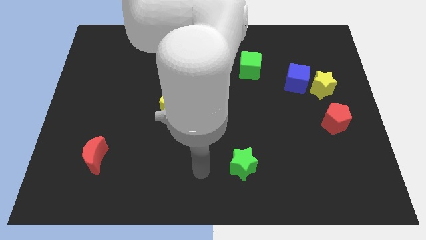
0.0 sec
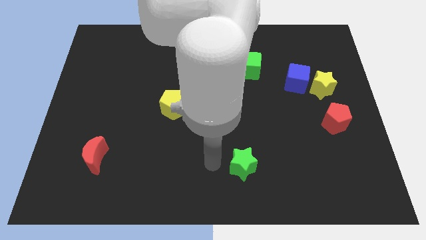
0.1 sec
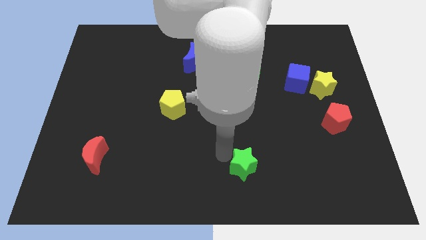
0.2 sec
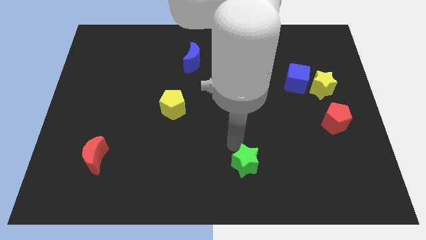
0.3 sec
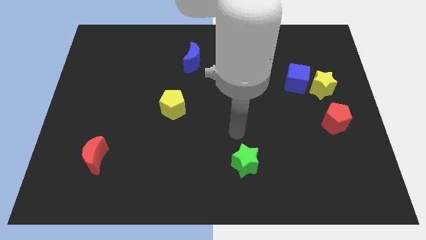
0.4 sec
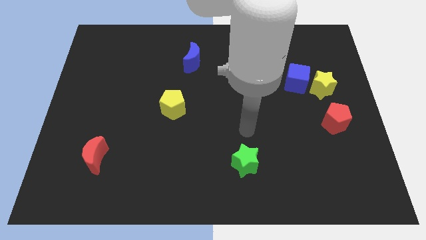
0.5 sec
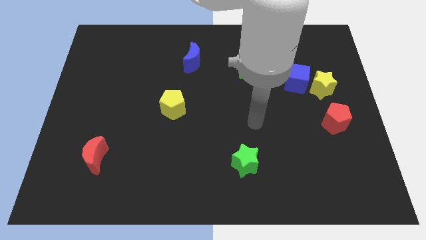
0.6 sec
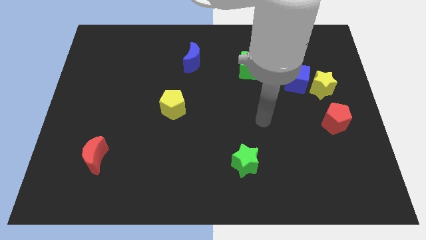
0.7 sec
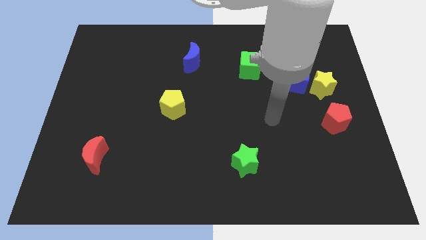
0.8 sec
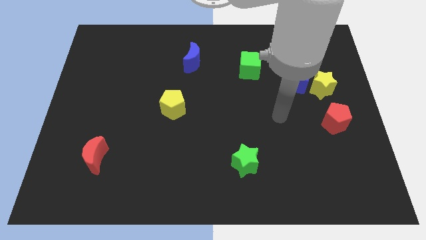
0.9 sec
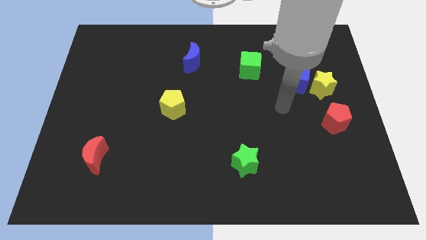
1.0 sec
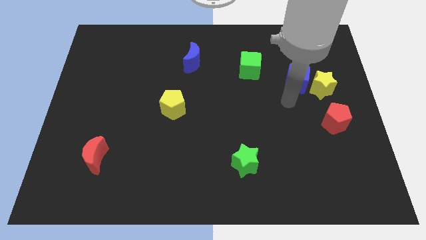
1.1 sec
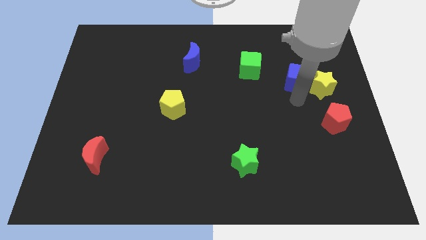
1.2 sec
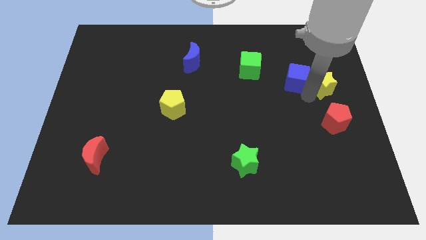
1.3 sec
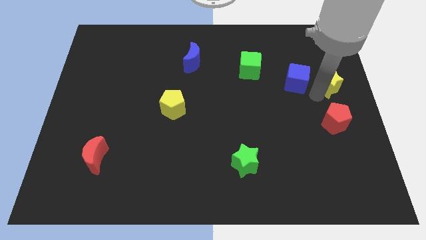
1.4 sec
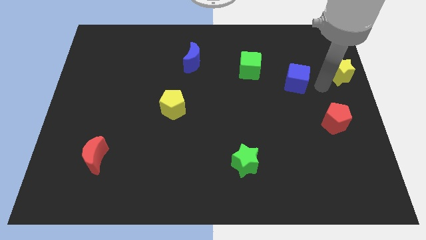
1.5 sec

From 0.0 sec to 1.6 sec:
separate the blue cube from the yellow star

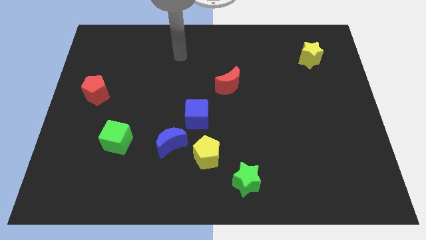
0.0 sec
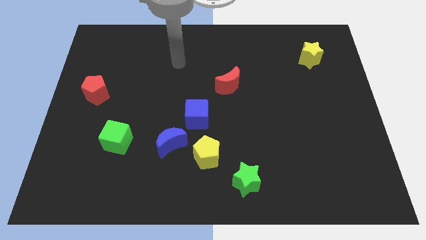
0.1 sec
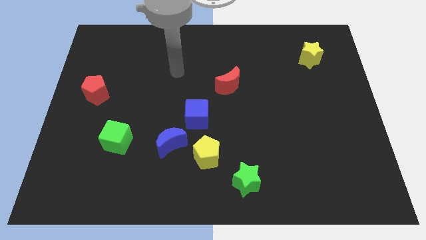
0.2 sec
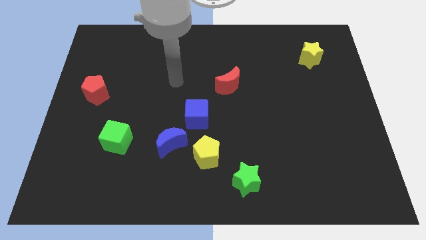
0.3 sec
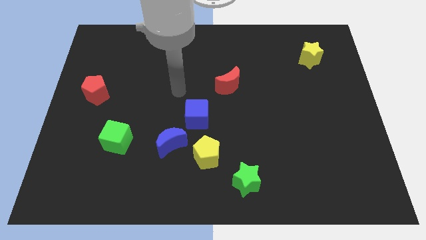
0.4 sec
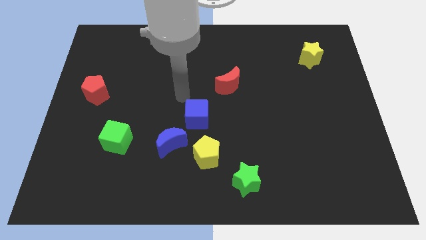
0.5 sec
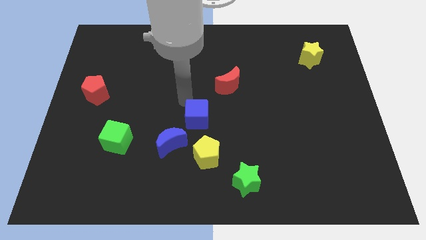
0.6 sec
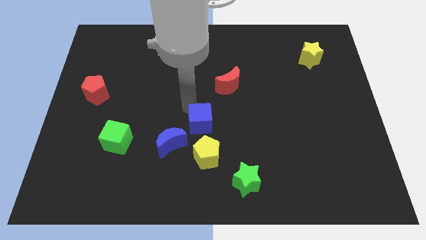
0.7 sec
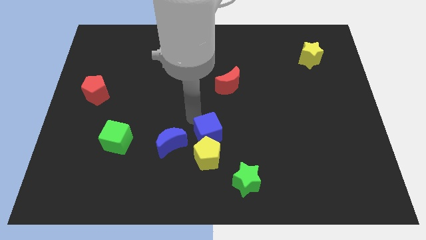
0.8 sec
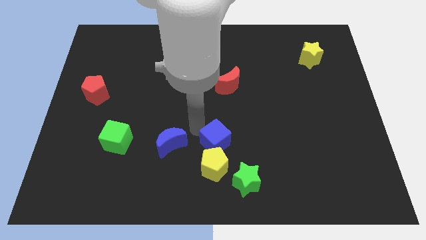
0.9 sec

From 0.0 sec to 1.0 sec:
pull the blue moon apart from the yellow pentagon and blue cube

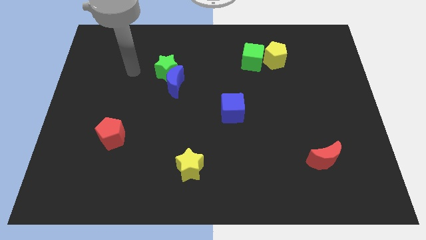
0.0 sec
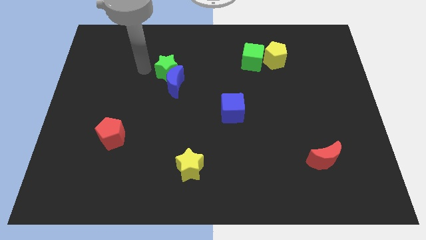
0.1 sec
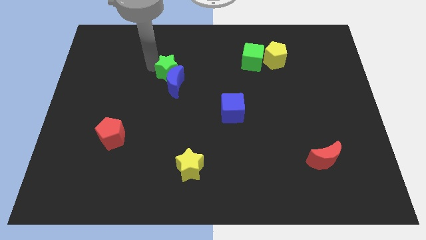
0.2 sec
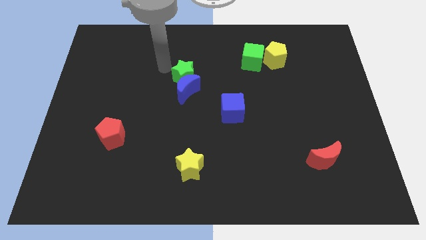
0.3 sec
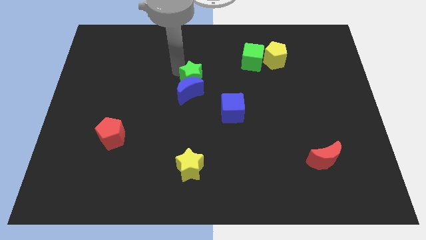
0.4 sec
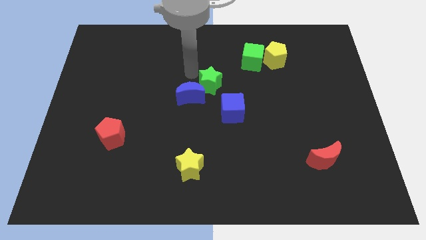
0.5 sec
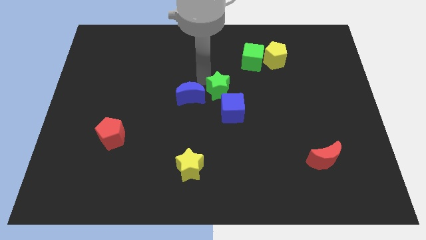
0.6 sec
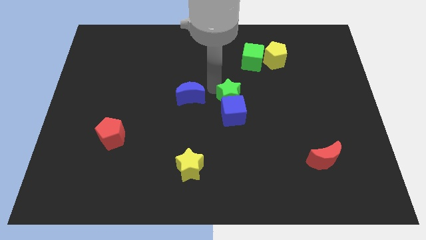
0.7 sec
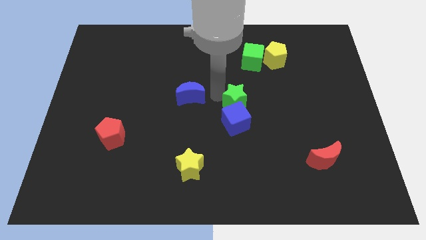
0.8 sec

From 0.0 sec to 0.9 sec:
move the blue moon away from the green star

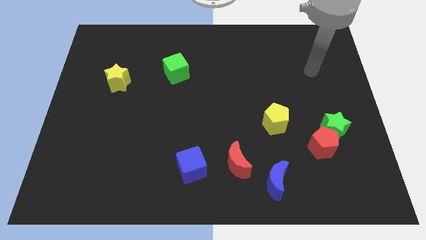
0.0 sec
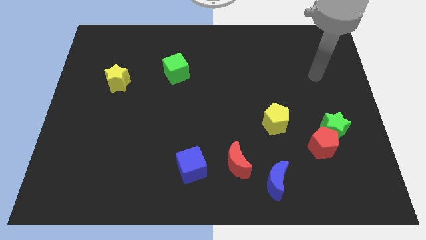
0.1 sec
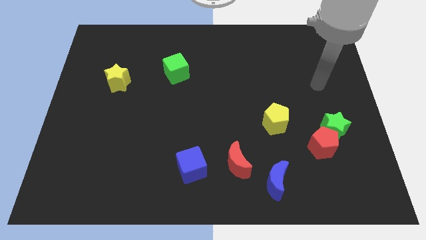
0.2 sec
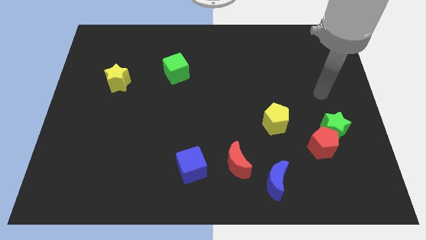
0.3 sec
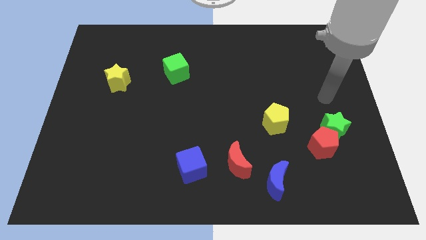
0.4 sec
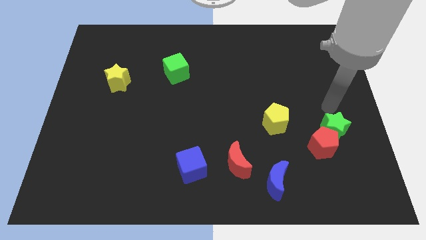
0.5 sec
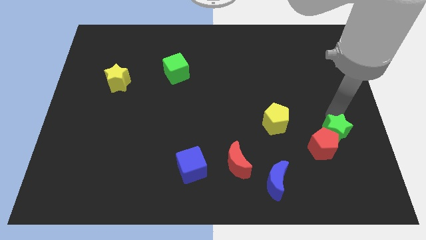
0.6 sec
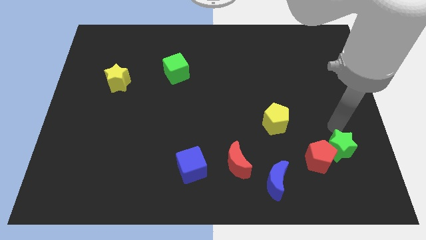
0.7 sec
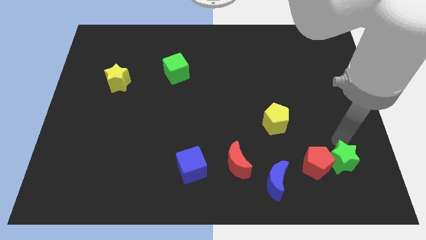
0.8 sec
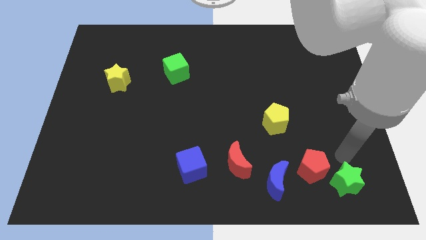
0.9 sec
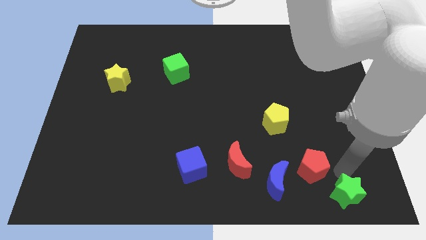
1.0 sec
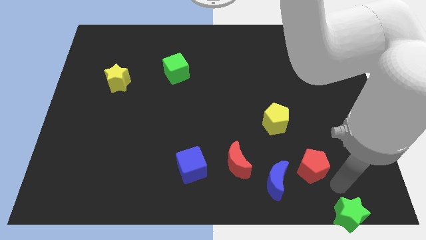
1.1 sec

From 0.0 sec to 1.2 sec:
move the red pentagon away from the green star

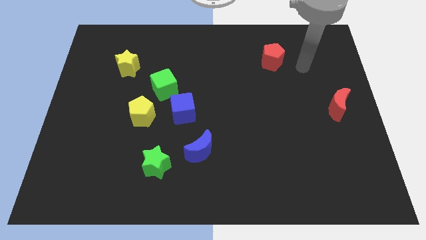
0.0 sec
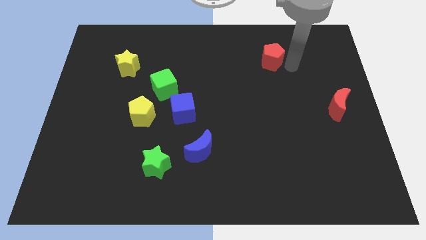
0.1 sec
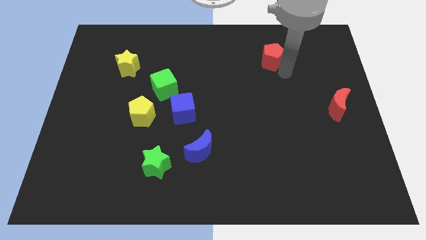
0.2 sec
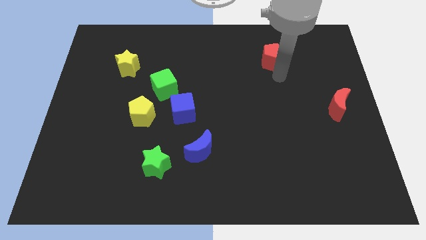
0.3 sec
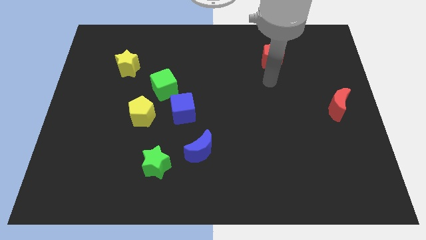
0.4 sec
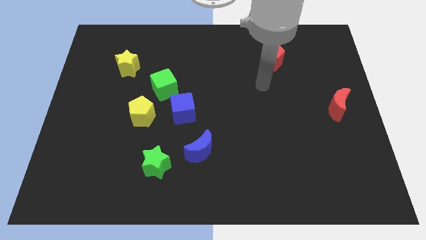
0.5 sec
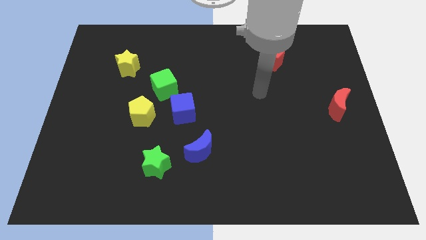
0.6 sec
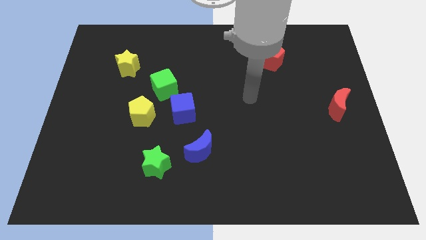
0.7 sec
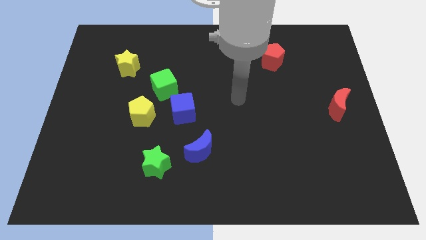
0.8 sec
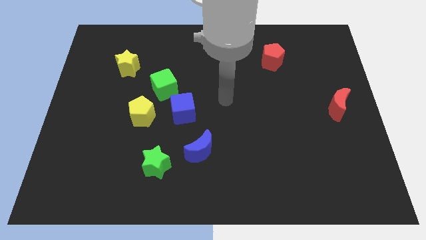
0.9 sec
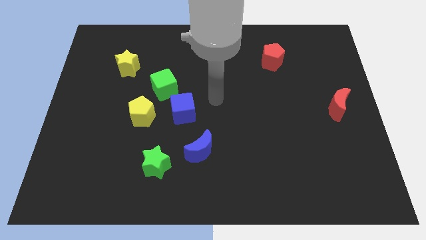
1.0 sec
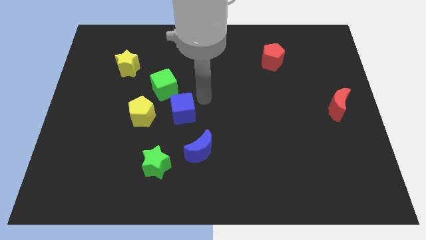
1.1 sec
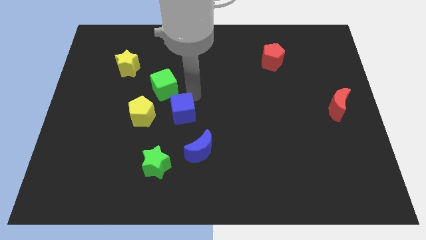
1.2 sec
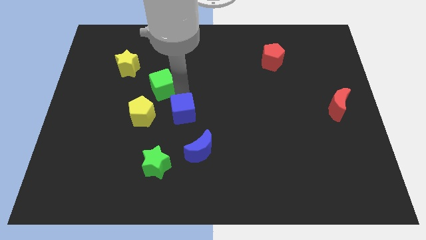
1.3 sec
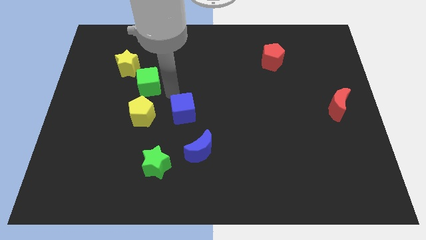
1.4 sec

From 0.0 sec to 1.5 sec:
separate the blue cube from the green cube and yellow pentagon

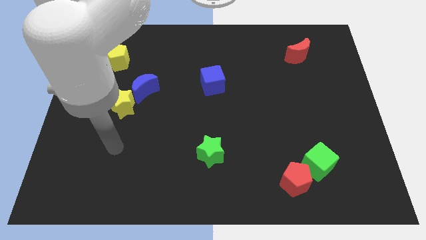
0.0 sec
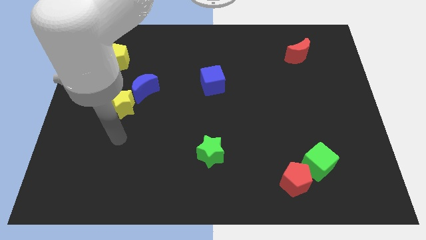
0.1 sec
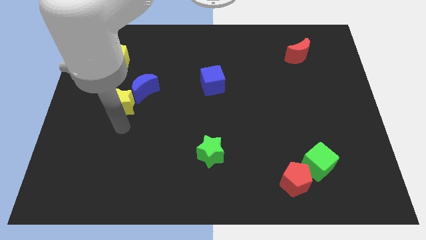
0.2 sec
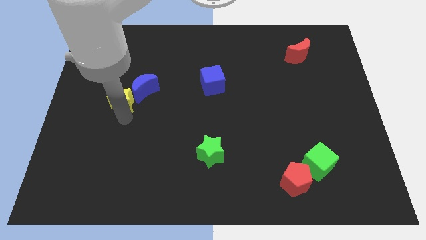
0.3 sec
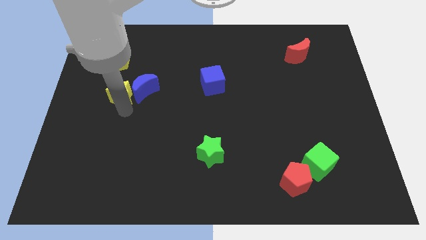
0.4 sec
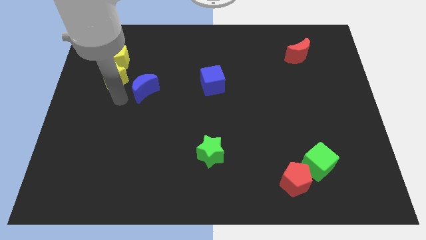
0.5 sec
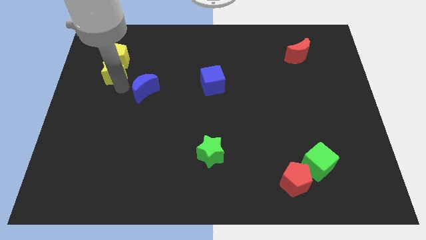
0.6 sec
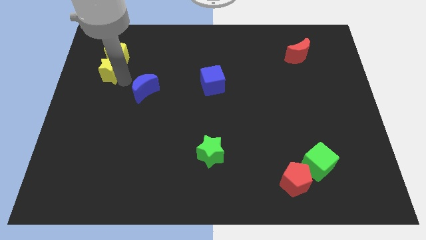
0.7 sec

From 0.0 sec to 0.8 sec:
pull the blue moon apart from the yellow star

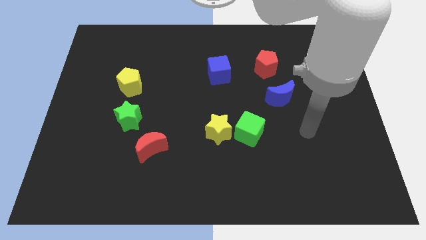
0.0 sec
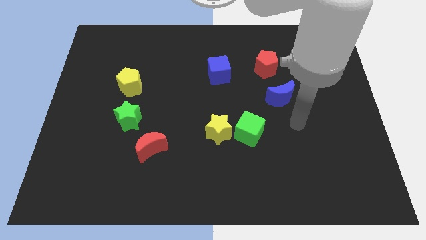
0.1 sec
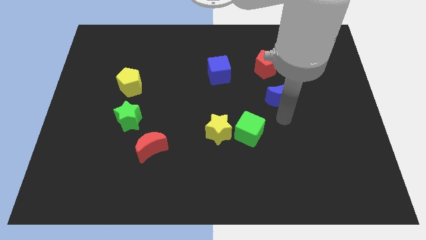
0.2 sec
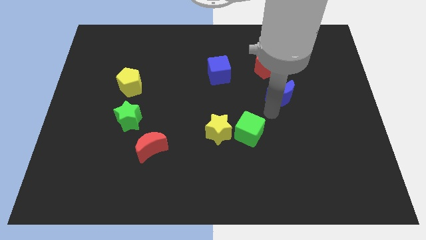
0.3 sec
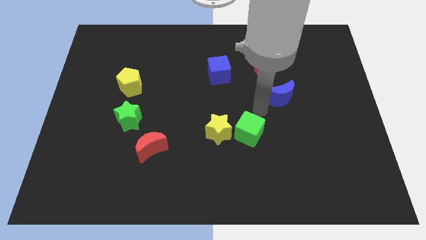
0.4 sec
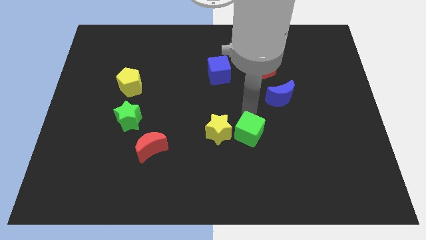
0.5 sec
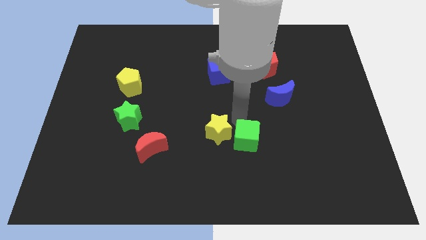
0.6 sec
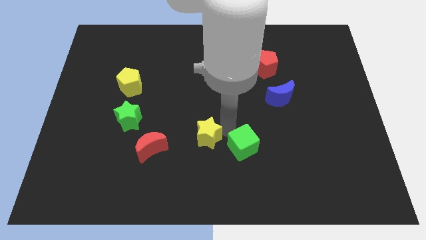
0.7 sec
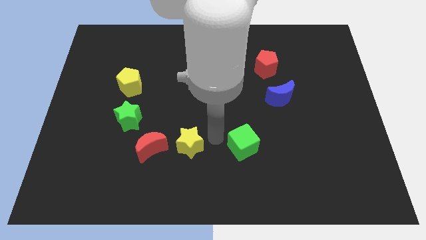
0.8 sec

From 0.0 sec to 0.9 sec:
move the green cube away from the yellow star

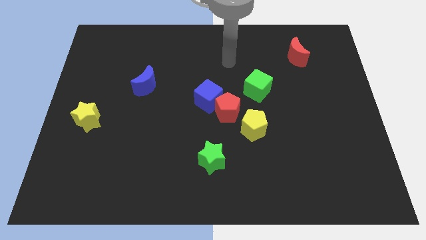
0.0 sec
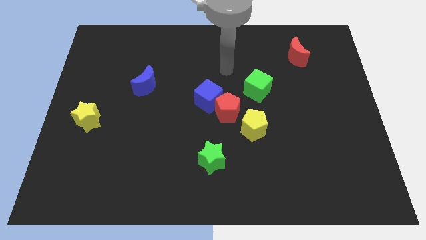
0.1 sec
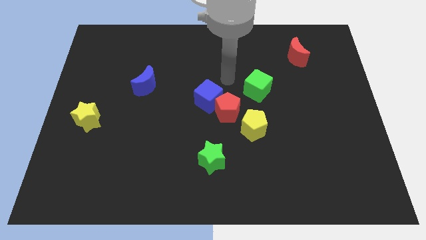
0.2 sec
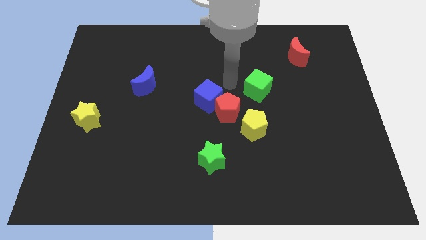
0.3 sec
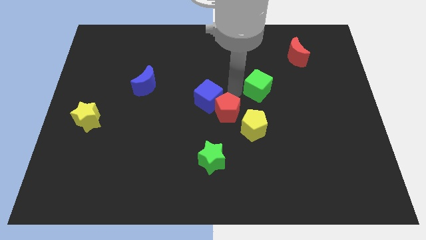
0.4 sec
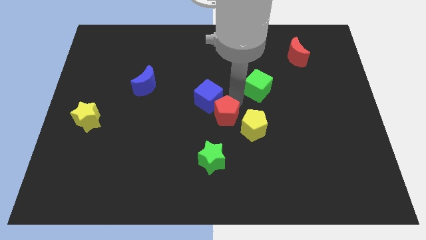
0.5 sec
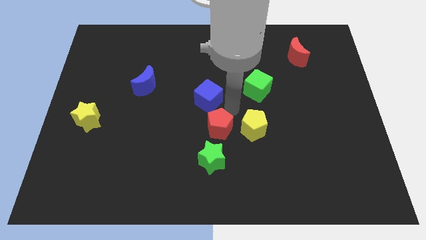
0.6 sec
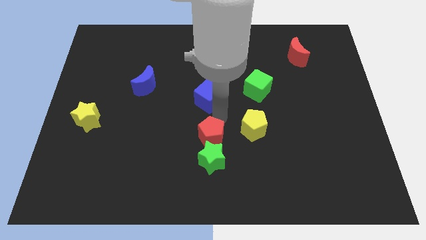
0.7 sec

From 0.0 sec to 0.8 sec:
separate the blue cube from the red pentagon

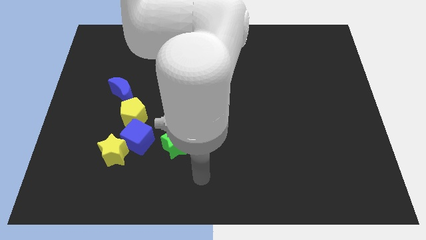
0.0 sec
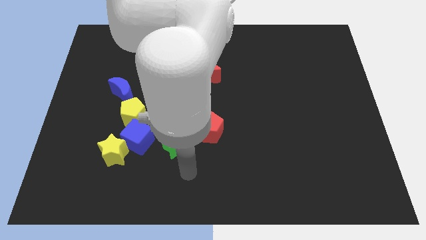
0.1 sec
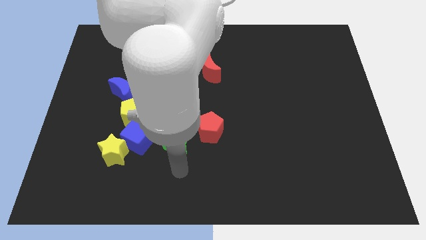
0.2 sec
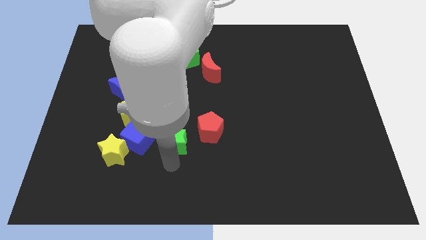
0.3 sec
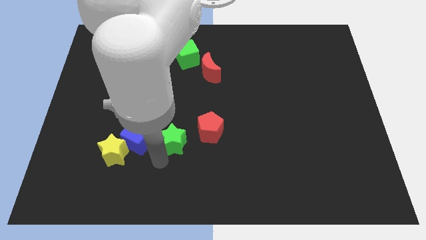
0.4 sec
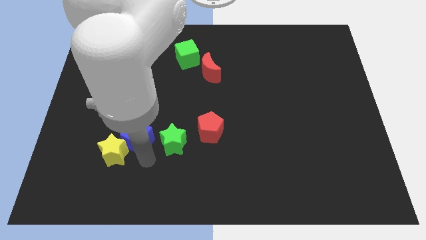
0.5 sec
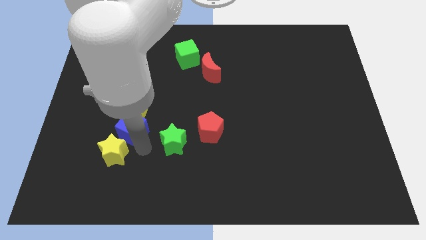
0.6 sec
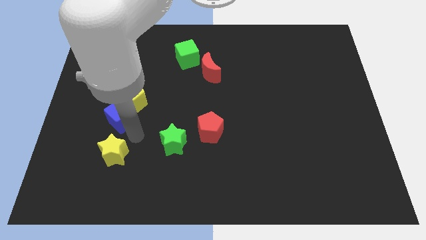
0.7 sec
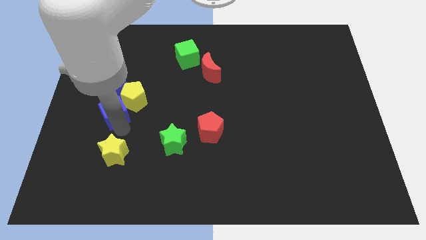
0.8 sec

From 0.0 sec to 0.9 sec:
separate the yellow star from the blue cube
